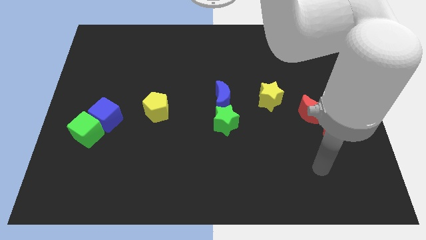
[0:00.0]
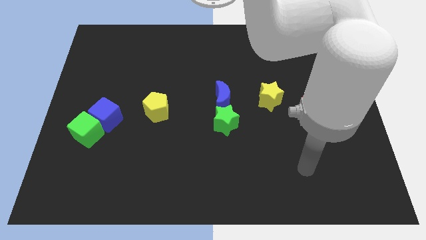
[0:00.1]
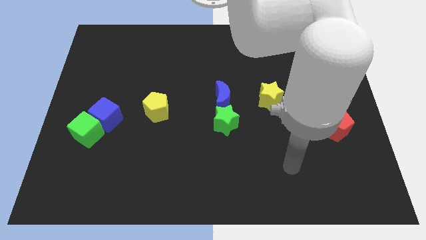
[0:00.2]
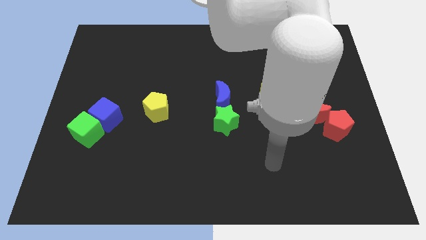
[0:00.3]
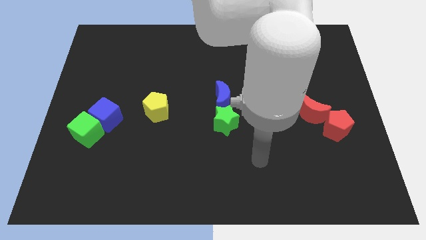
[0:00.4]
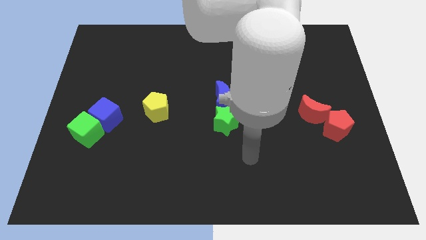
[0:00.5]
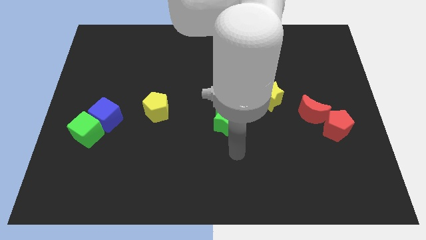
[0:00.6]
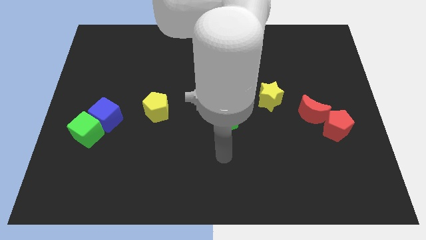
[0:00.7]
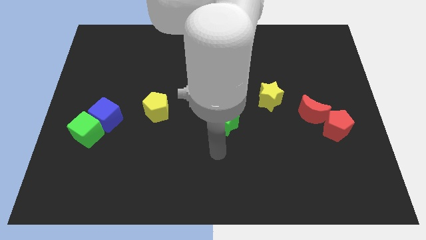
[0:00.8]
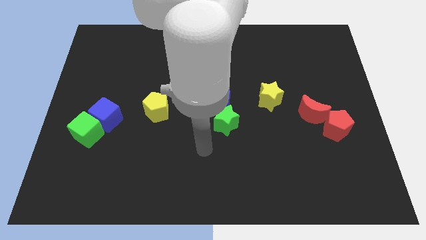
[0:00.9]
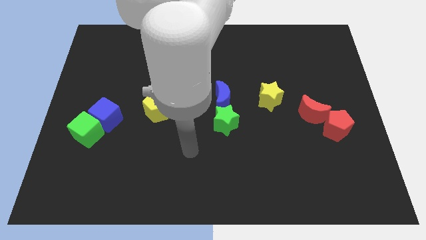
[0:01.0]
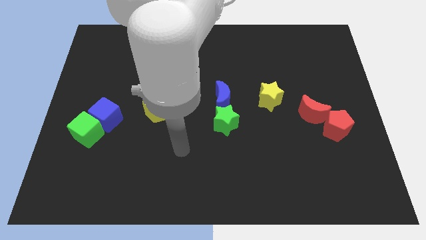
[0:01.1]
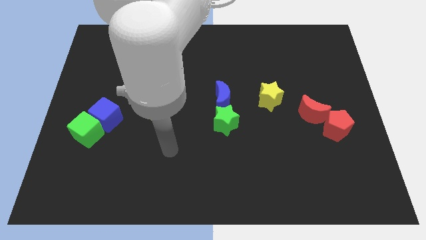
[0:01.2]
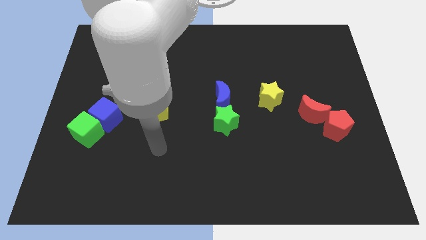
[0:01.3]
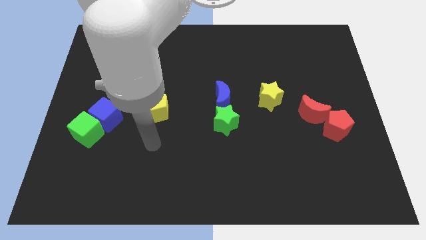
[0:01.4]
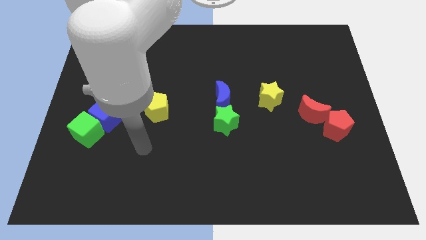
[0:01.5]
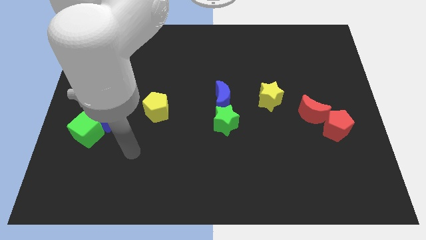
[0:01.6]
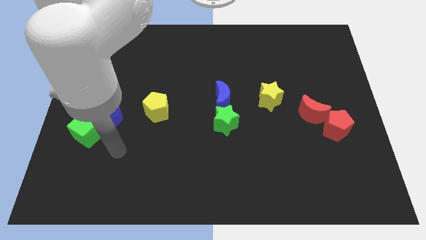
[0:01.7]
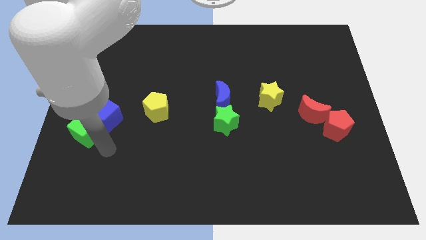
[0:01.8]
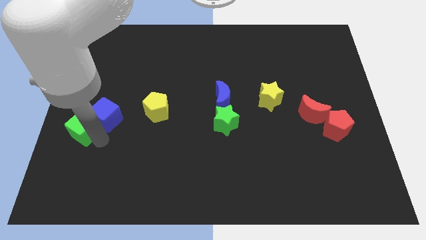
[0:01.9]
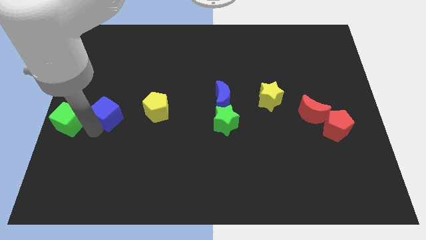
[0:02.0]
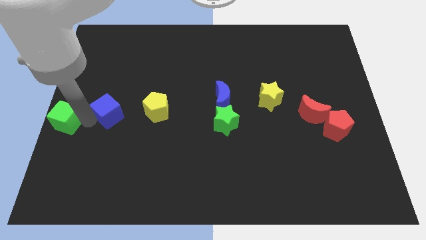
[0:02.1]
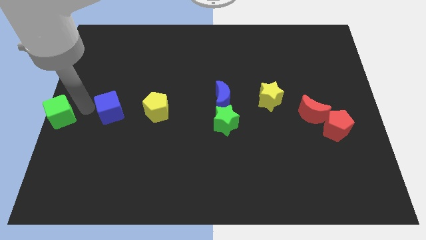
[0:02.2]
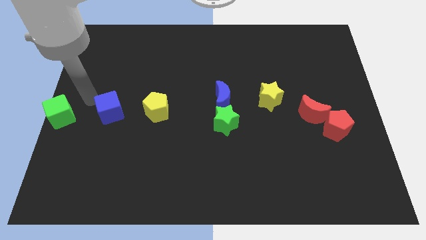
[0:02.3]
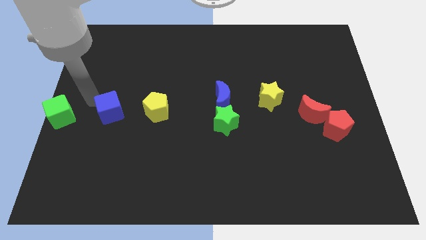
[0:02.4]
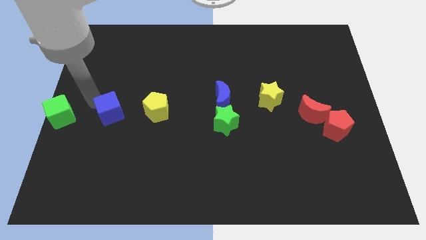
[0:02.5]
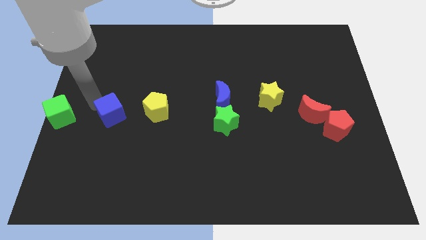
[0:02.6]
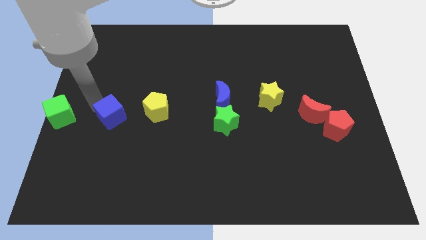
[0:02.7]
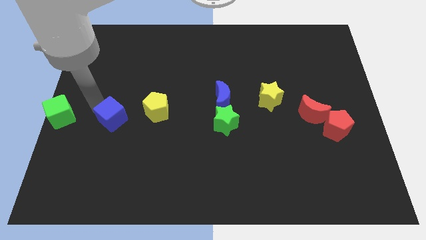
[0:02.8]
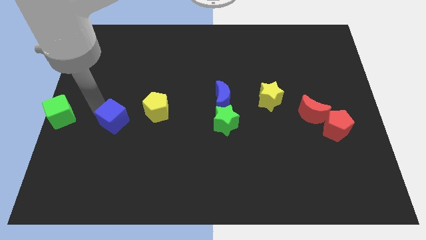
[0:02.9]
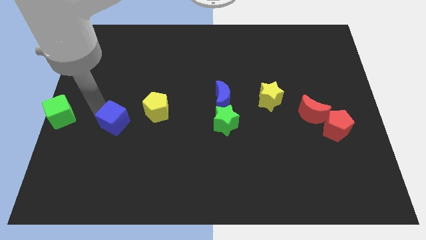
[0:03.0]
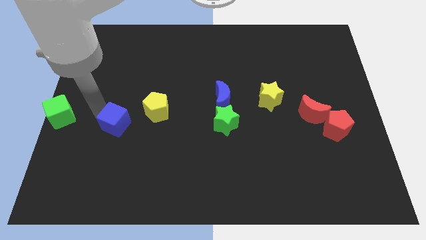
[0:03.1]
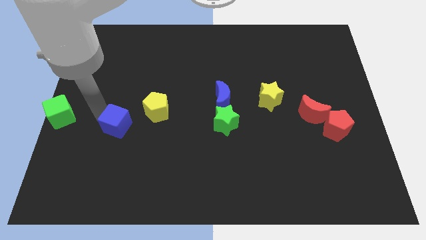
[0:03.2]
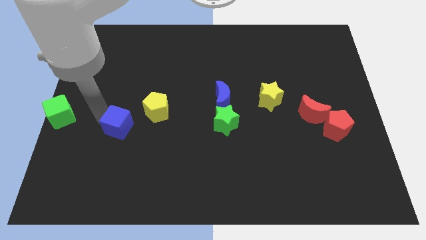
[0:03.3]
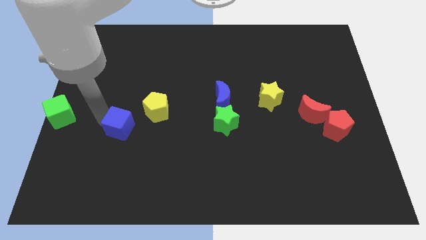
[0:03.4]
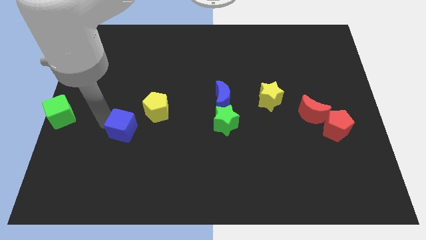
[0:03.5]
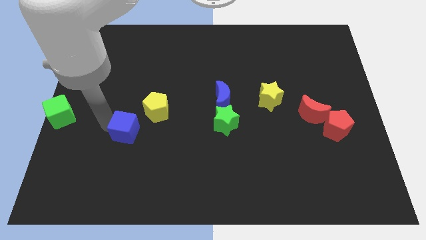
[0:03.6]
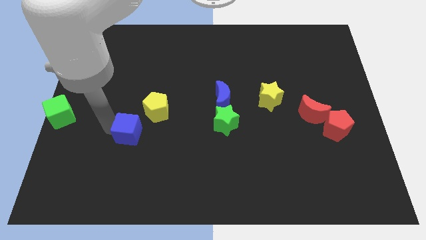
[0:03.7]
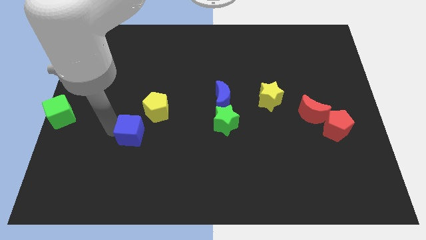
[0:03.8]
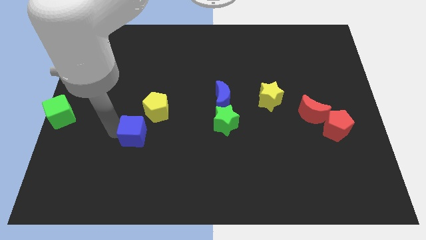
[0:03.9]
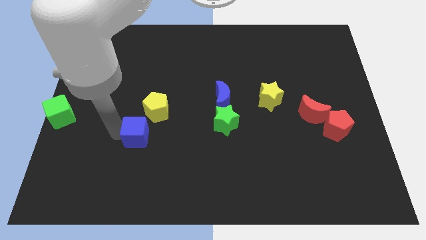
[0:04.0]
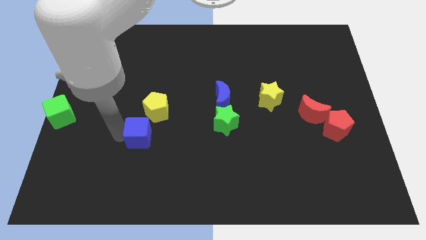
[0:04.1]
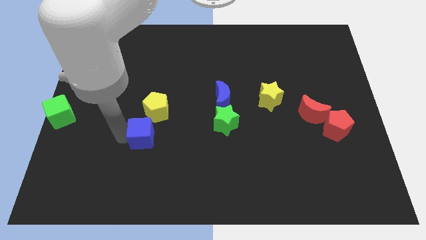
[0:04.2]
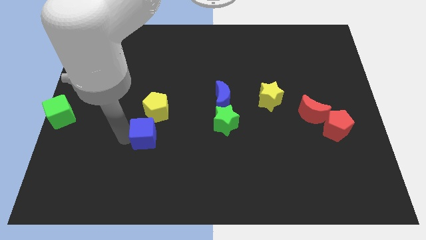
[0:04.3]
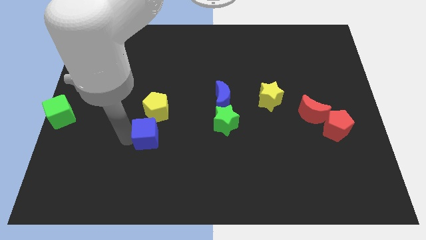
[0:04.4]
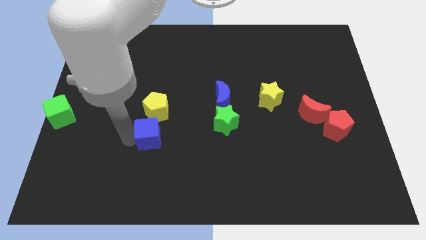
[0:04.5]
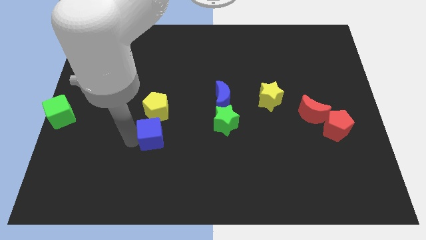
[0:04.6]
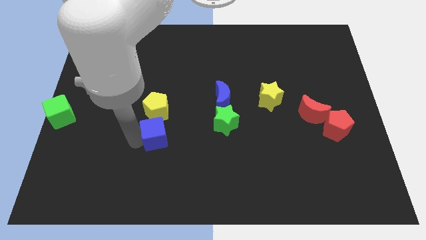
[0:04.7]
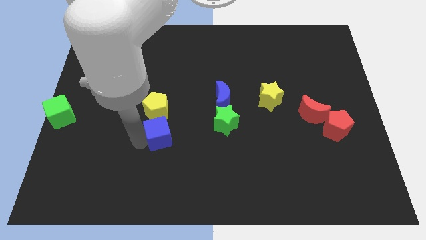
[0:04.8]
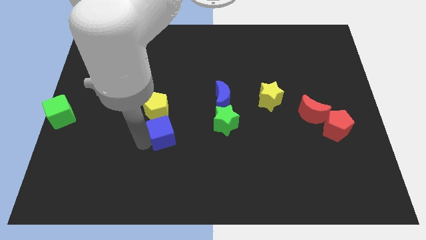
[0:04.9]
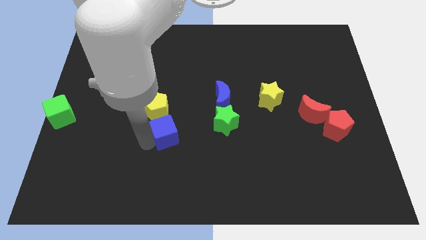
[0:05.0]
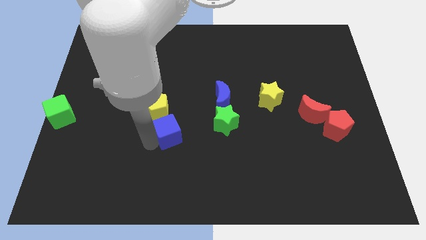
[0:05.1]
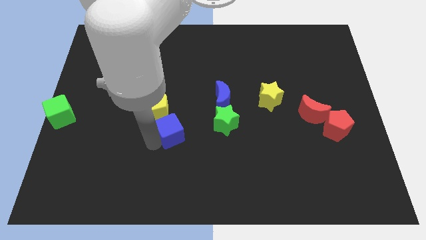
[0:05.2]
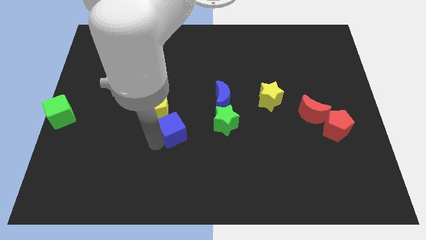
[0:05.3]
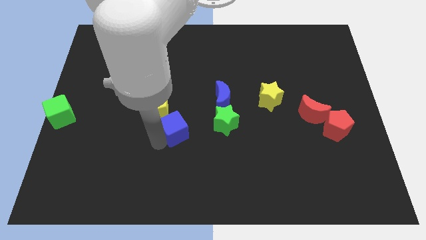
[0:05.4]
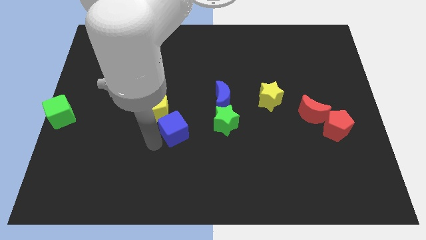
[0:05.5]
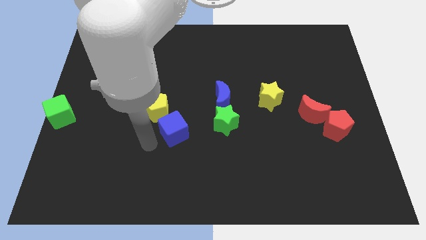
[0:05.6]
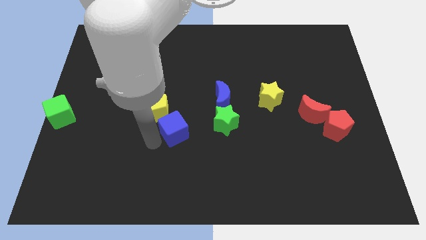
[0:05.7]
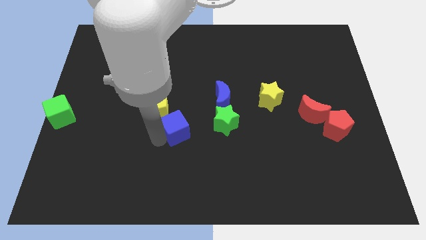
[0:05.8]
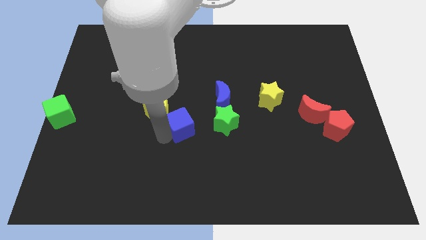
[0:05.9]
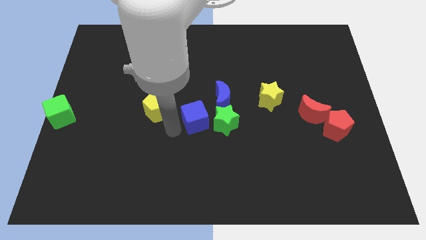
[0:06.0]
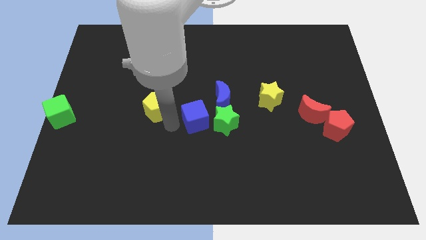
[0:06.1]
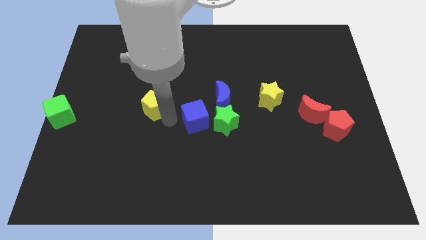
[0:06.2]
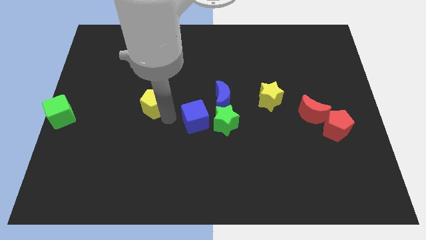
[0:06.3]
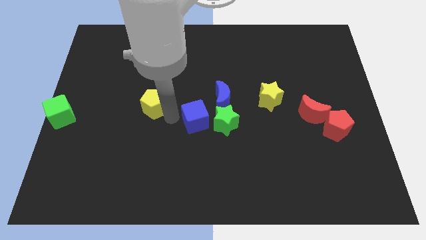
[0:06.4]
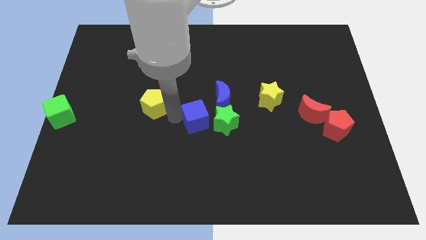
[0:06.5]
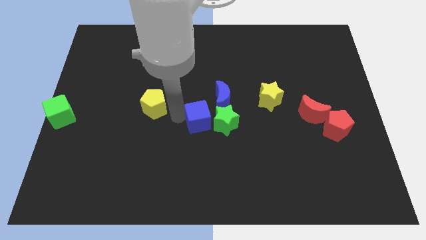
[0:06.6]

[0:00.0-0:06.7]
put the blue cube close to the green star

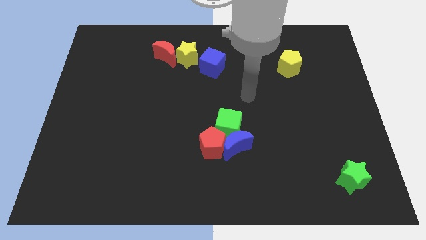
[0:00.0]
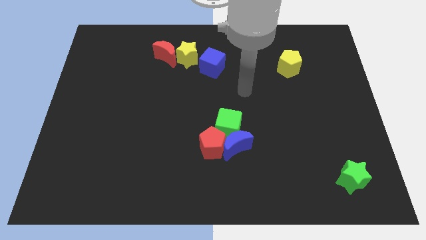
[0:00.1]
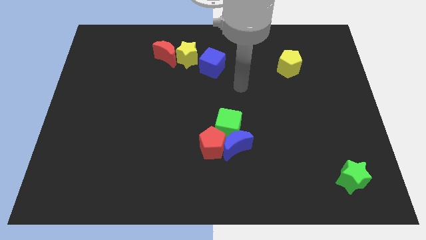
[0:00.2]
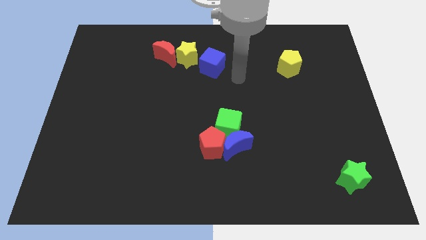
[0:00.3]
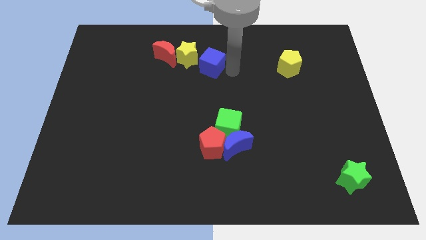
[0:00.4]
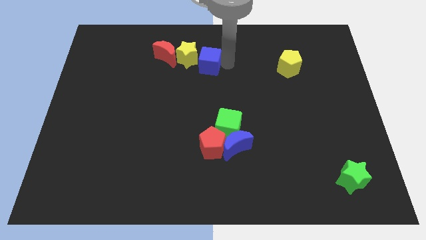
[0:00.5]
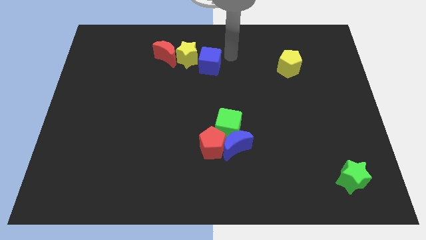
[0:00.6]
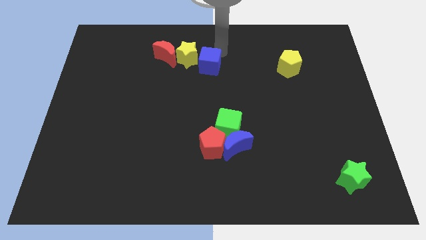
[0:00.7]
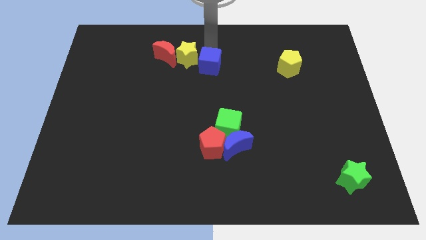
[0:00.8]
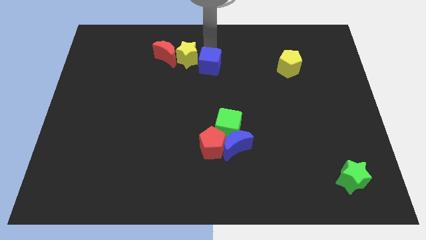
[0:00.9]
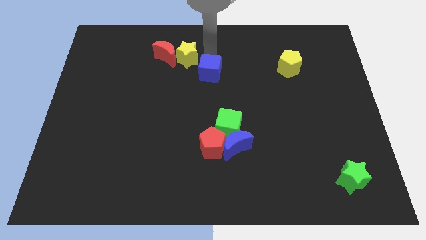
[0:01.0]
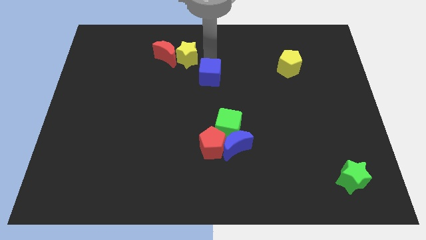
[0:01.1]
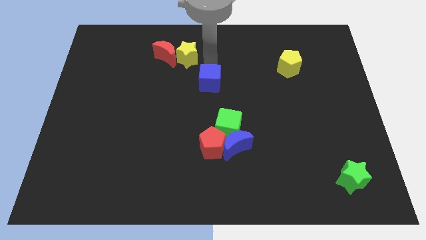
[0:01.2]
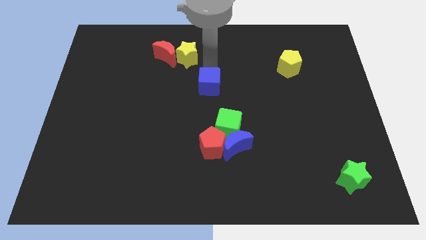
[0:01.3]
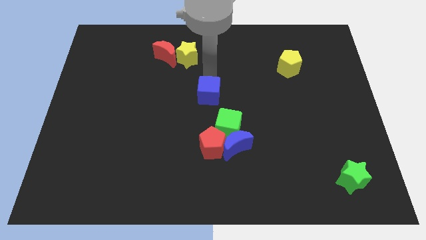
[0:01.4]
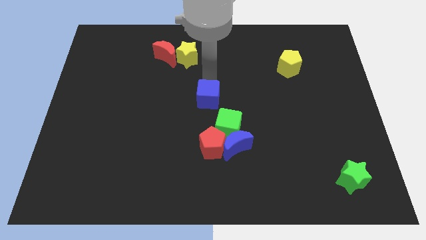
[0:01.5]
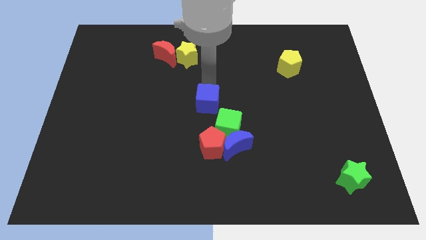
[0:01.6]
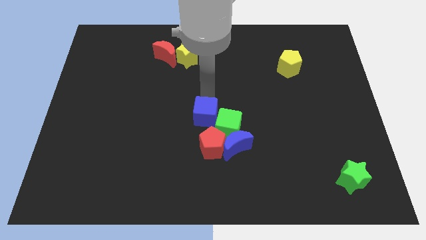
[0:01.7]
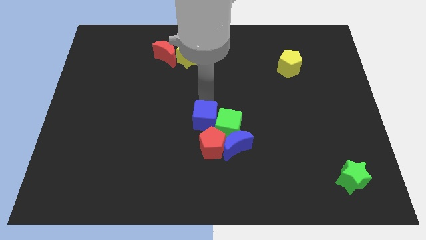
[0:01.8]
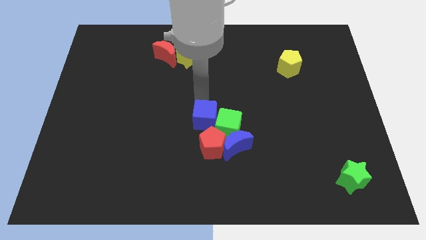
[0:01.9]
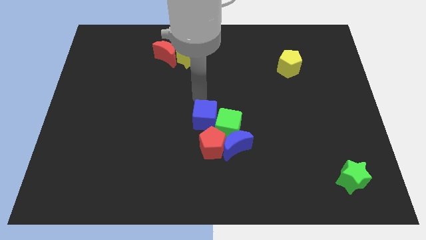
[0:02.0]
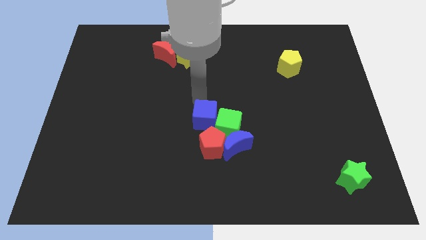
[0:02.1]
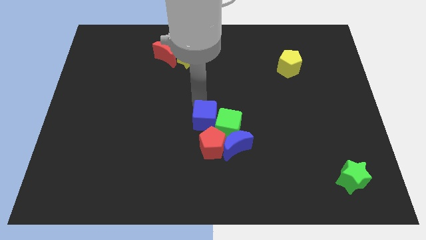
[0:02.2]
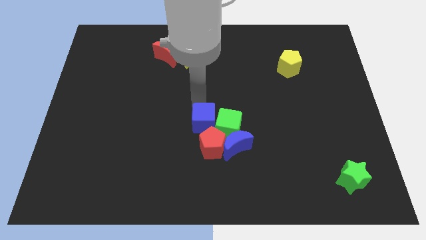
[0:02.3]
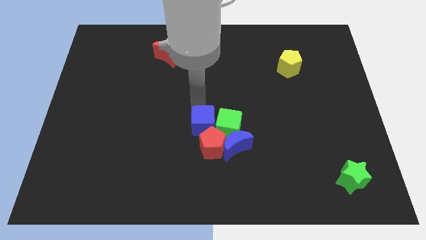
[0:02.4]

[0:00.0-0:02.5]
move the blue cube to the red pentagon
